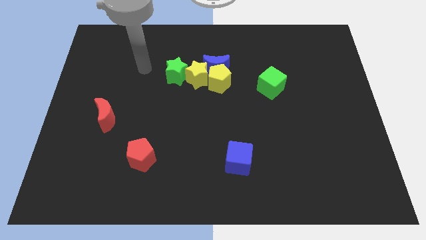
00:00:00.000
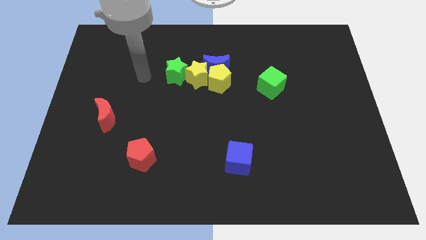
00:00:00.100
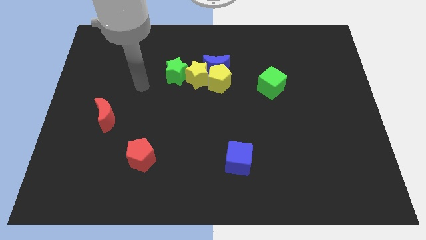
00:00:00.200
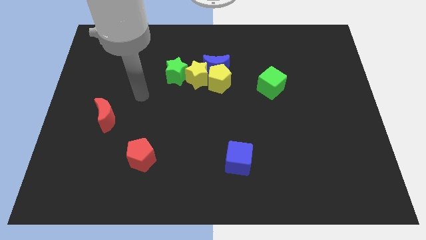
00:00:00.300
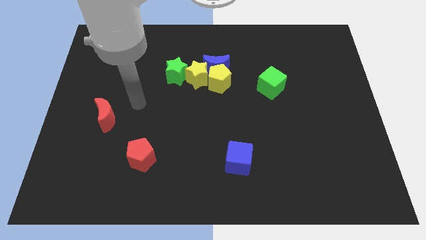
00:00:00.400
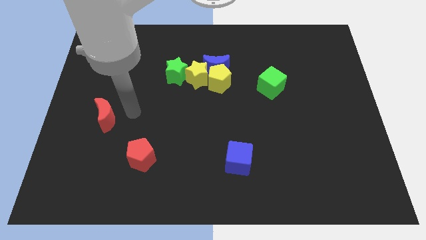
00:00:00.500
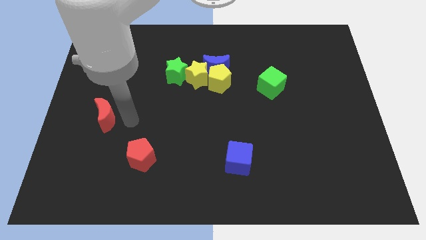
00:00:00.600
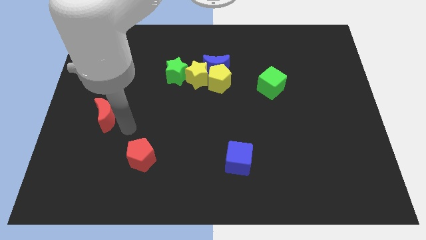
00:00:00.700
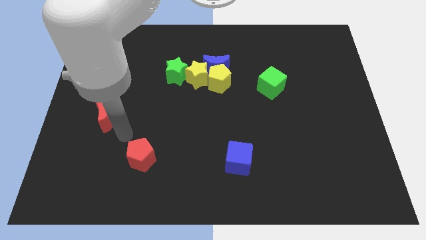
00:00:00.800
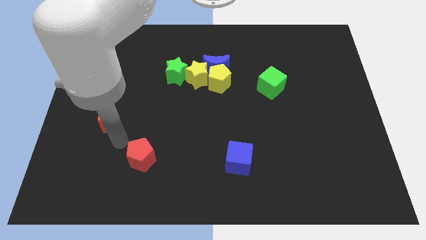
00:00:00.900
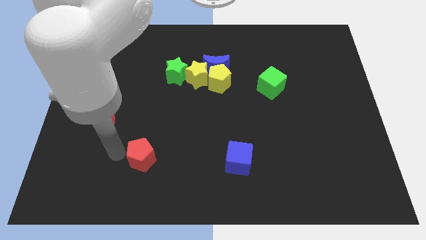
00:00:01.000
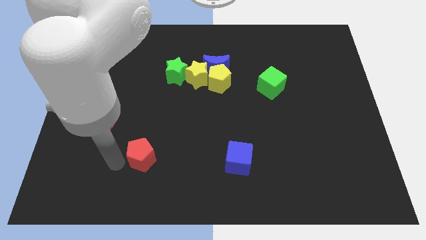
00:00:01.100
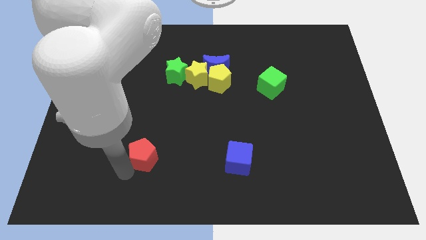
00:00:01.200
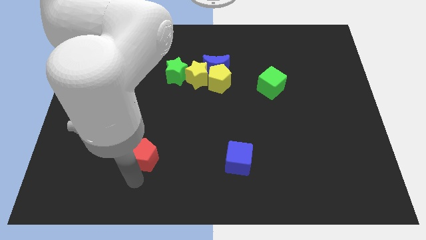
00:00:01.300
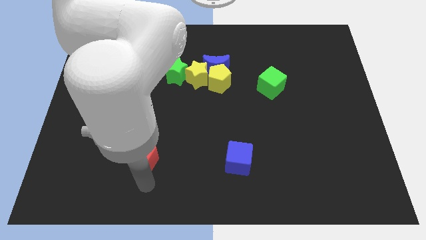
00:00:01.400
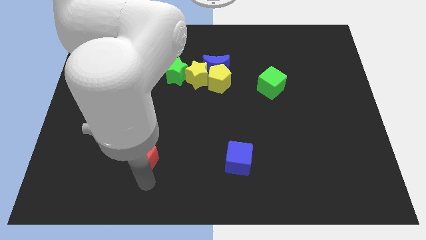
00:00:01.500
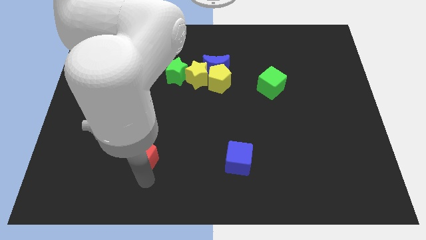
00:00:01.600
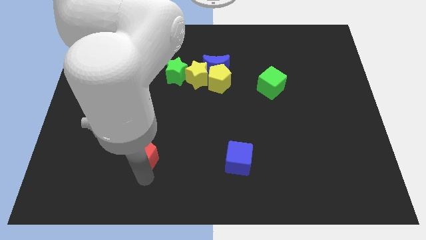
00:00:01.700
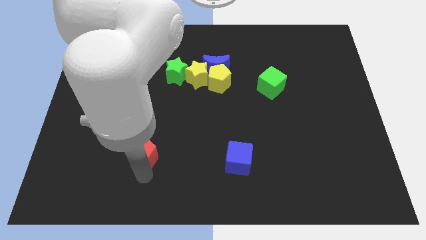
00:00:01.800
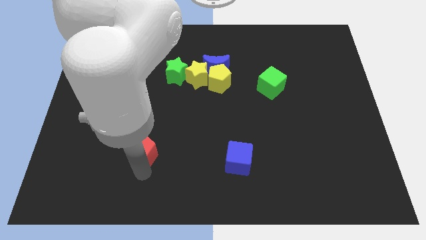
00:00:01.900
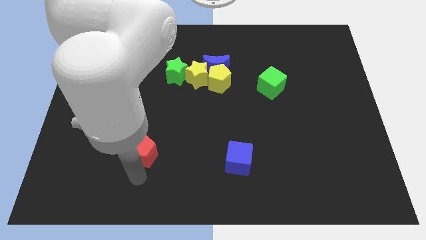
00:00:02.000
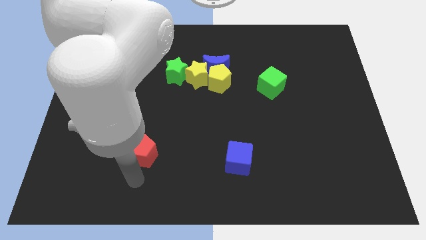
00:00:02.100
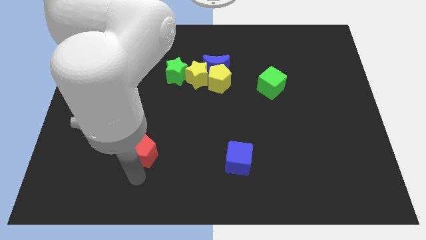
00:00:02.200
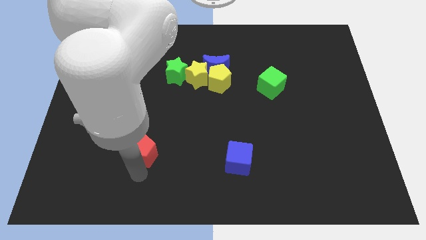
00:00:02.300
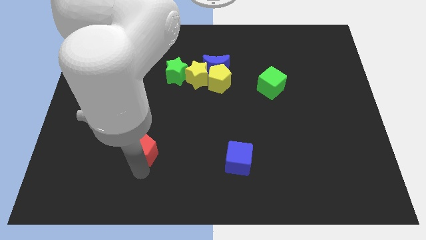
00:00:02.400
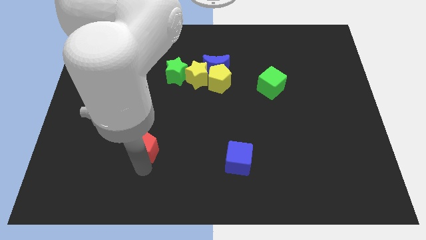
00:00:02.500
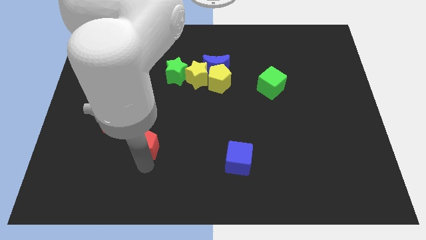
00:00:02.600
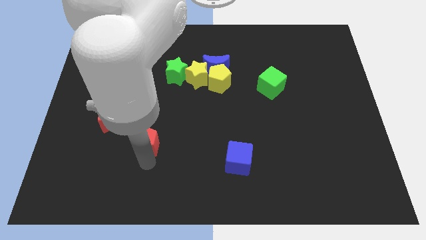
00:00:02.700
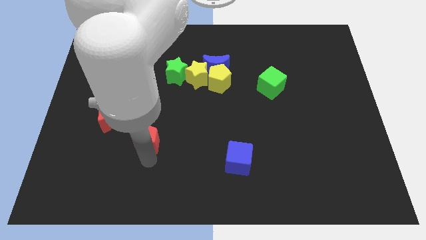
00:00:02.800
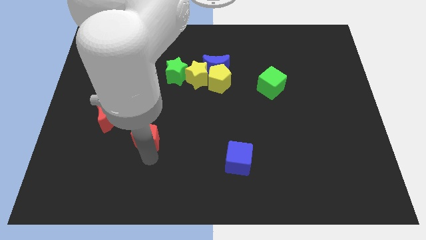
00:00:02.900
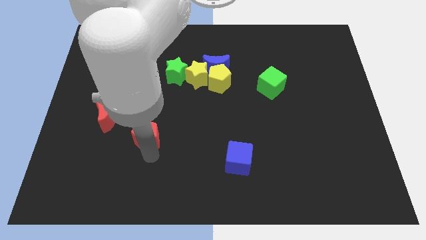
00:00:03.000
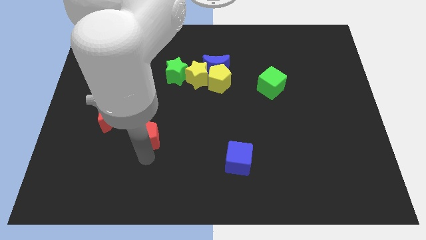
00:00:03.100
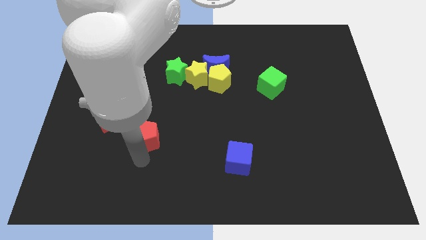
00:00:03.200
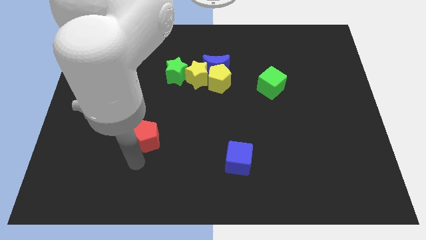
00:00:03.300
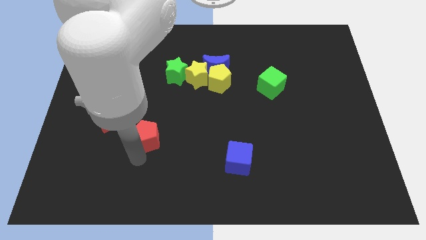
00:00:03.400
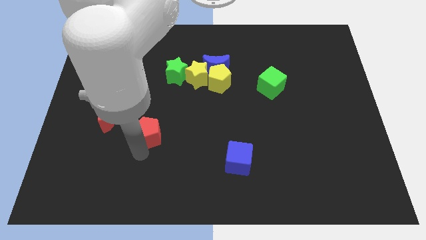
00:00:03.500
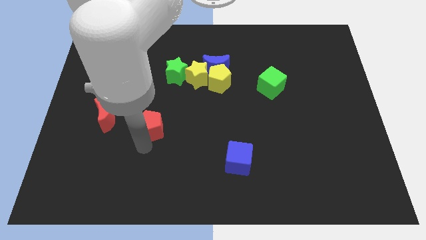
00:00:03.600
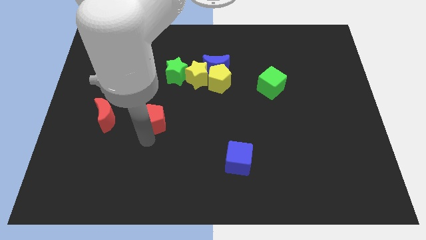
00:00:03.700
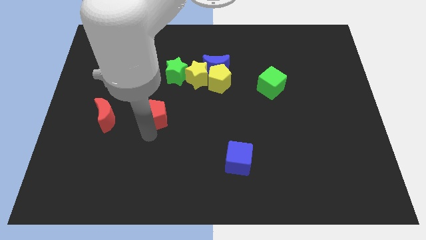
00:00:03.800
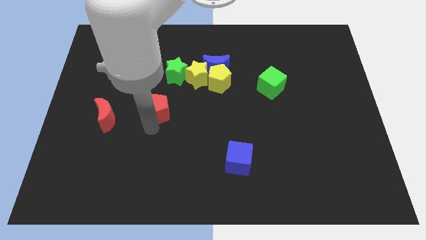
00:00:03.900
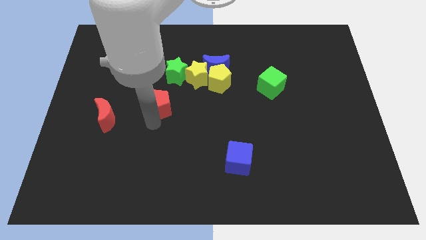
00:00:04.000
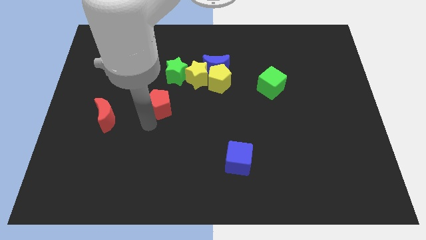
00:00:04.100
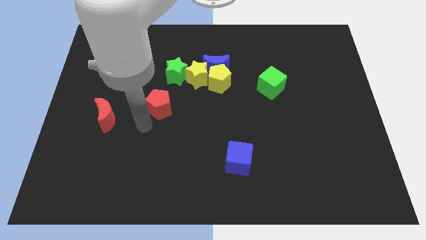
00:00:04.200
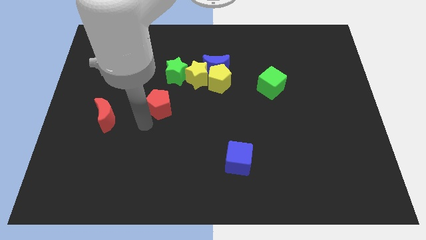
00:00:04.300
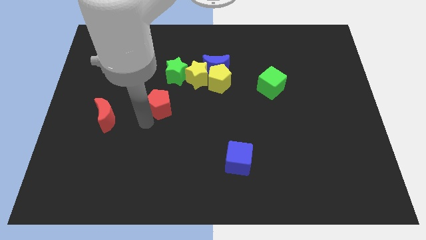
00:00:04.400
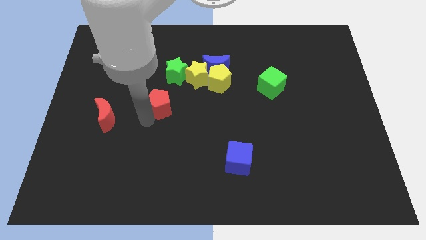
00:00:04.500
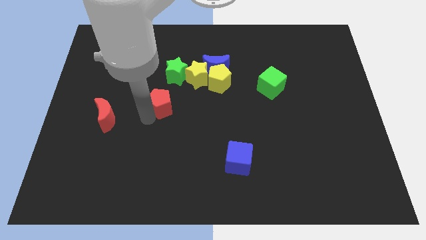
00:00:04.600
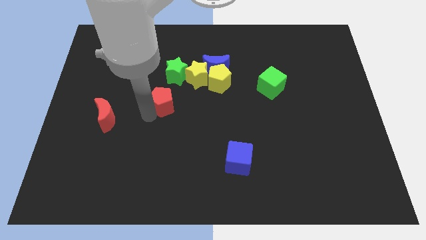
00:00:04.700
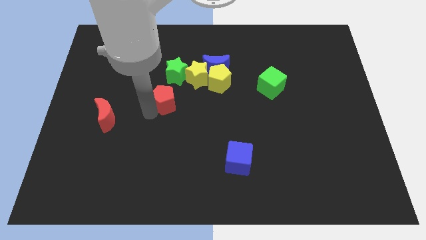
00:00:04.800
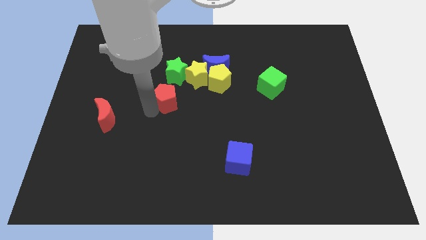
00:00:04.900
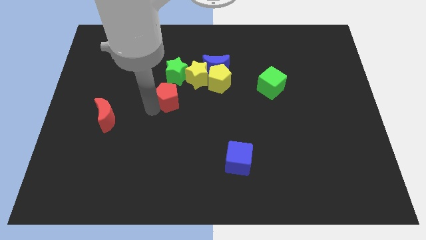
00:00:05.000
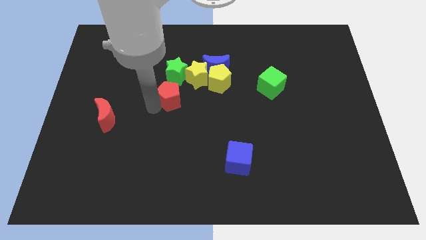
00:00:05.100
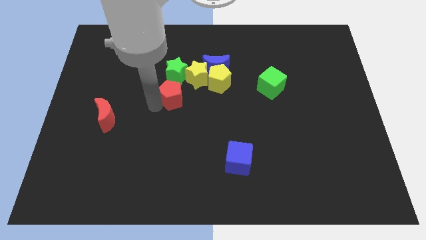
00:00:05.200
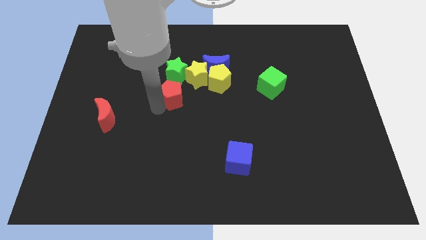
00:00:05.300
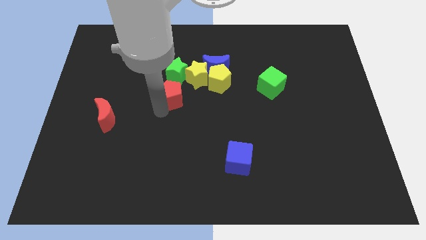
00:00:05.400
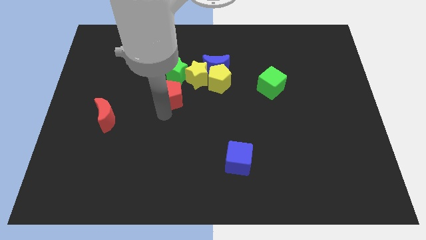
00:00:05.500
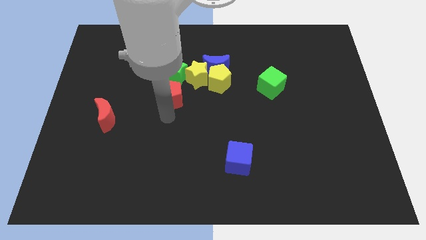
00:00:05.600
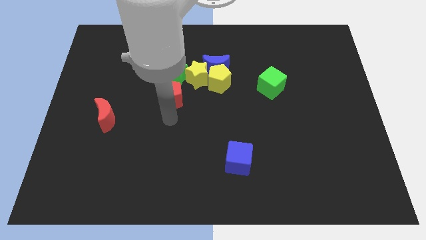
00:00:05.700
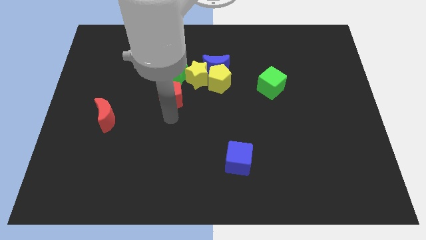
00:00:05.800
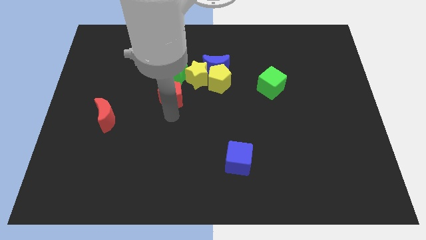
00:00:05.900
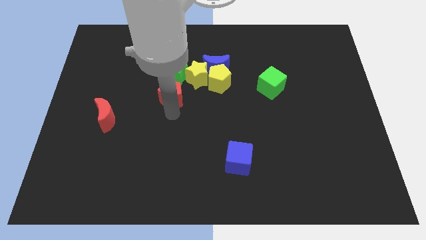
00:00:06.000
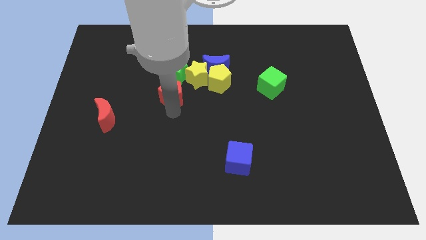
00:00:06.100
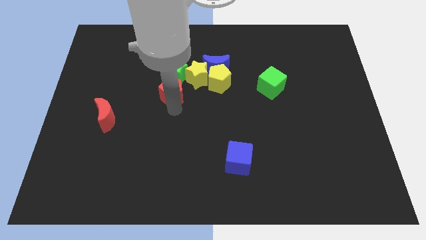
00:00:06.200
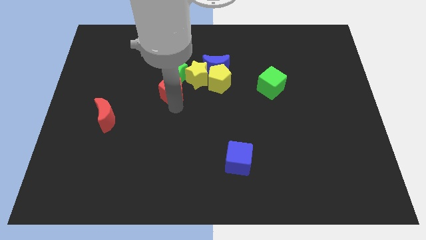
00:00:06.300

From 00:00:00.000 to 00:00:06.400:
move the red pentagon to the green star

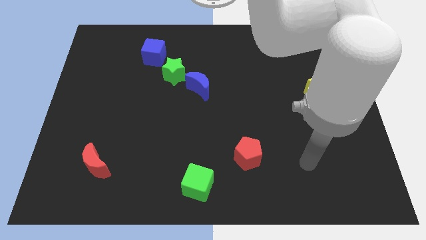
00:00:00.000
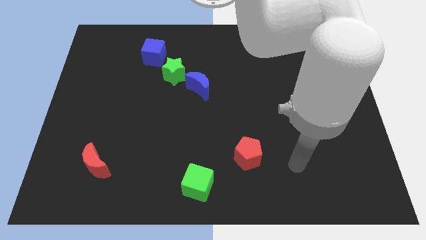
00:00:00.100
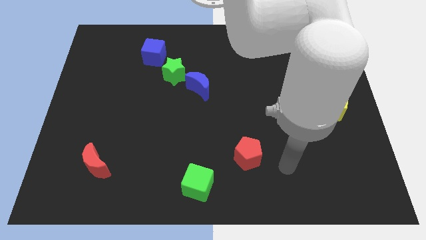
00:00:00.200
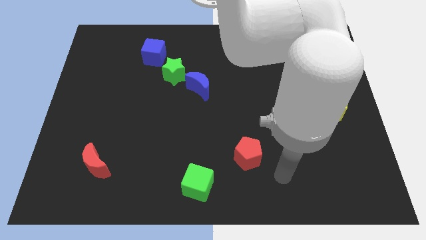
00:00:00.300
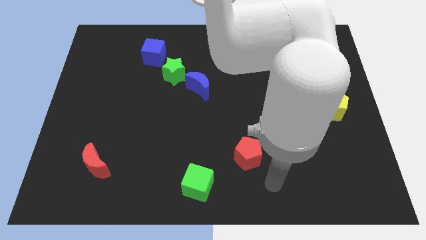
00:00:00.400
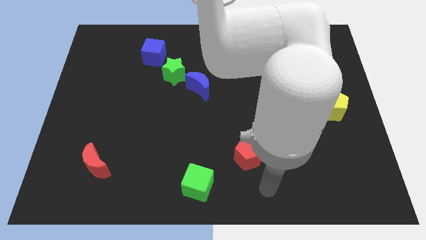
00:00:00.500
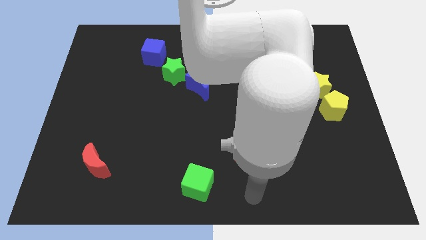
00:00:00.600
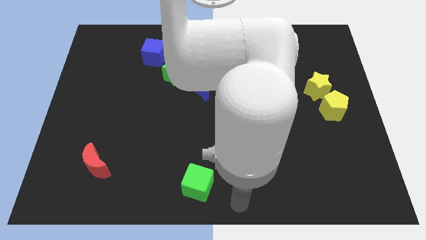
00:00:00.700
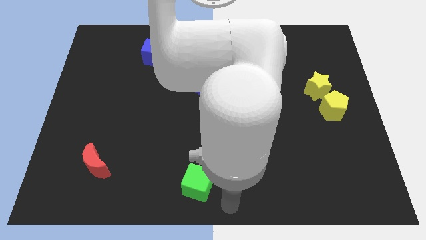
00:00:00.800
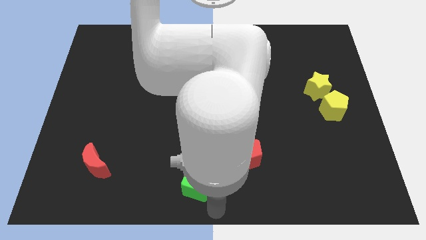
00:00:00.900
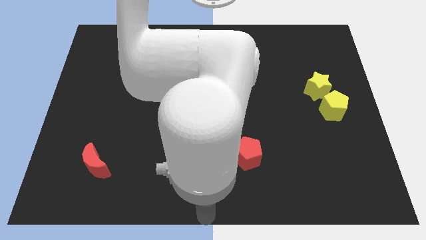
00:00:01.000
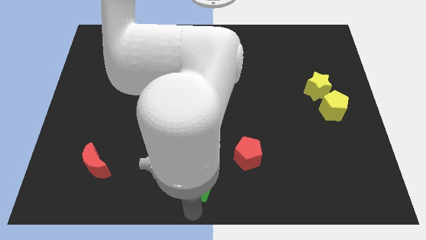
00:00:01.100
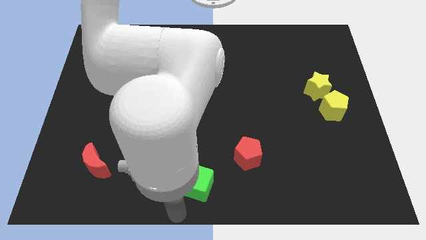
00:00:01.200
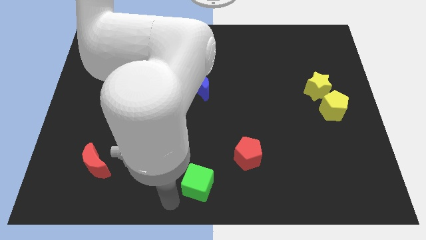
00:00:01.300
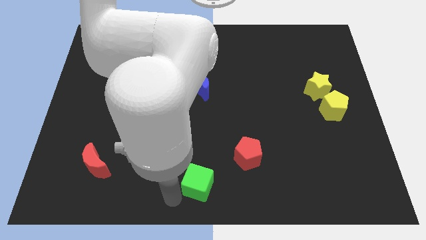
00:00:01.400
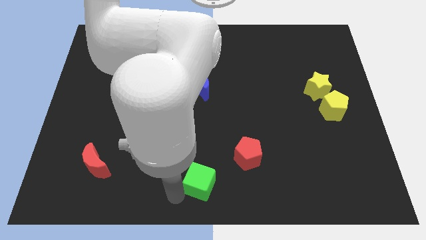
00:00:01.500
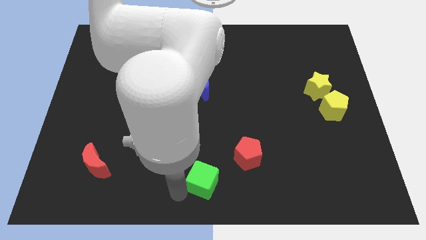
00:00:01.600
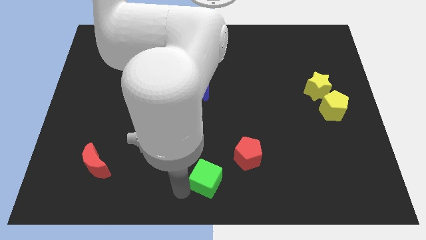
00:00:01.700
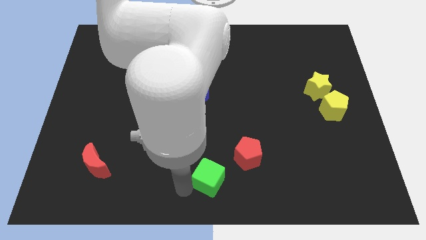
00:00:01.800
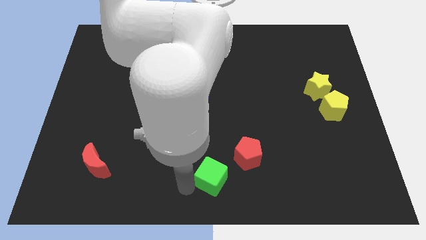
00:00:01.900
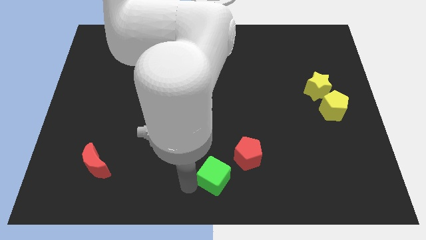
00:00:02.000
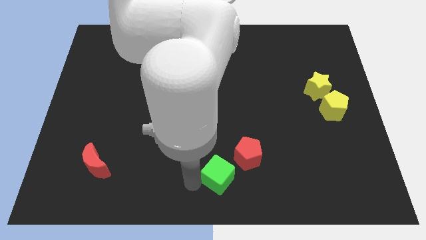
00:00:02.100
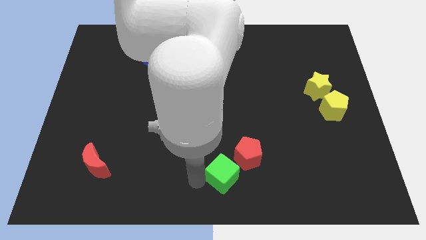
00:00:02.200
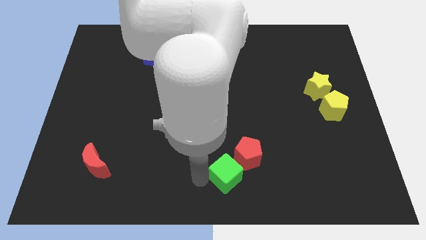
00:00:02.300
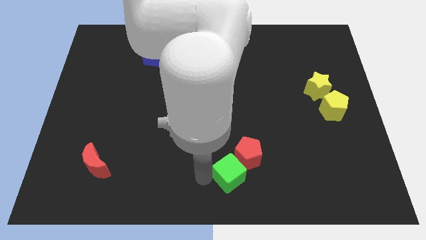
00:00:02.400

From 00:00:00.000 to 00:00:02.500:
push the green cube to the red pentagon
